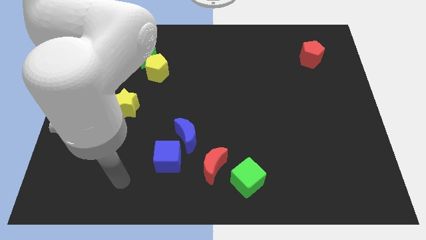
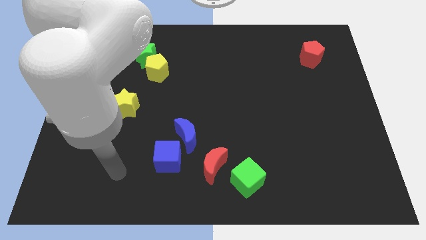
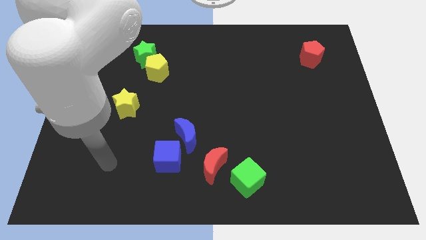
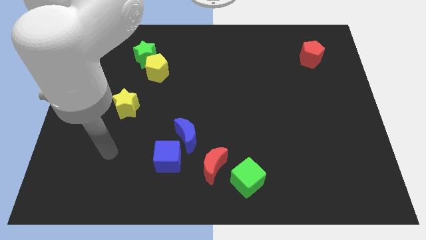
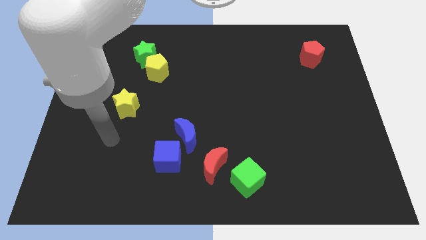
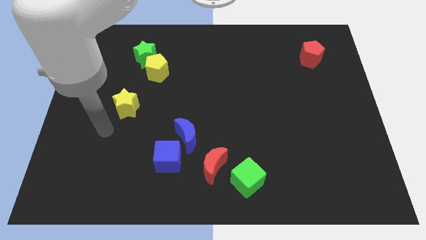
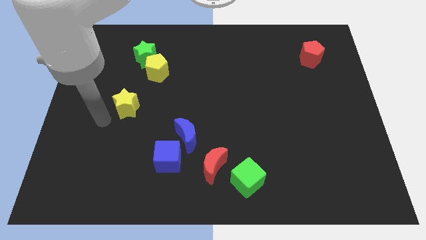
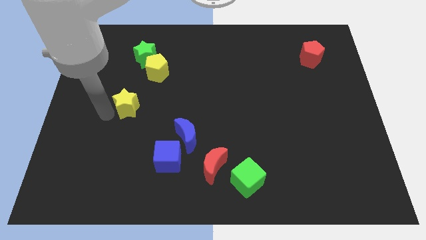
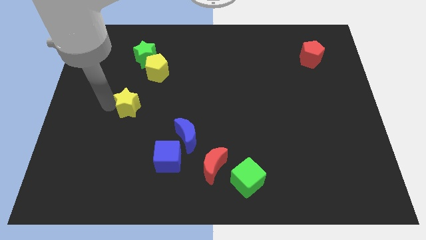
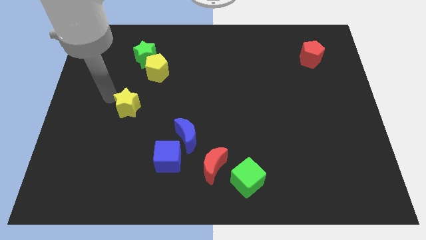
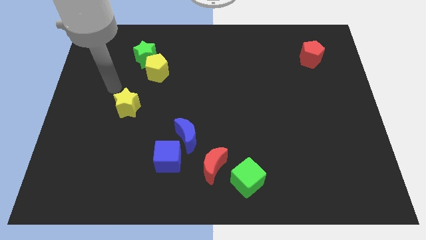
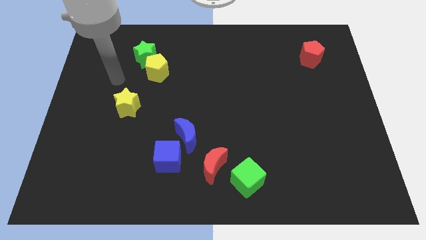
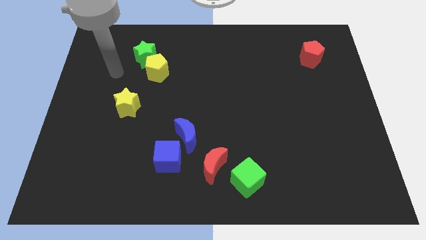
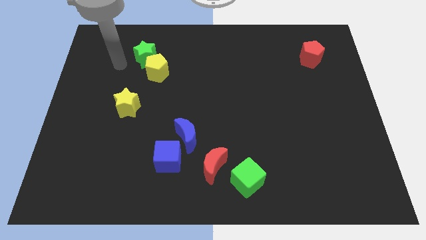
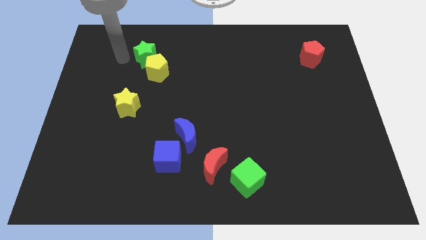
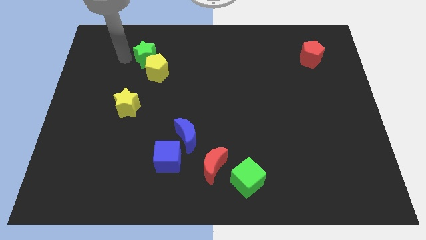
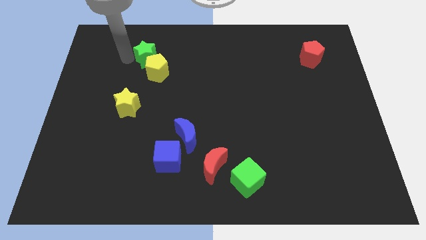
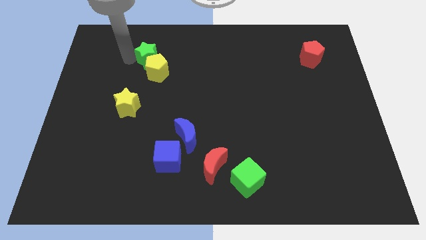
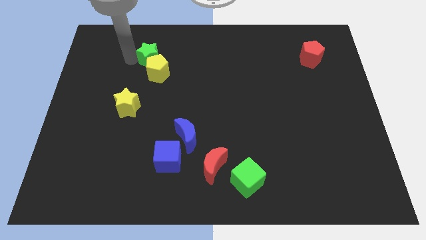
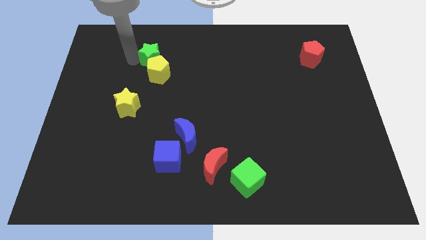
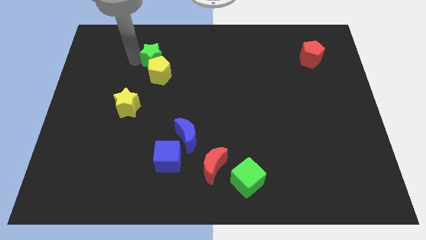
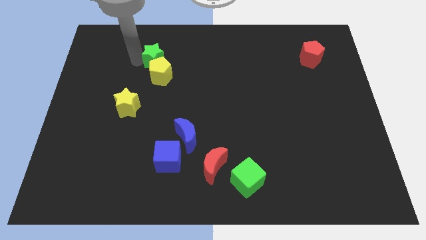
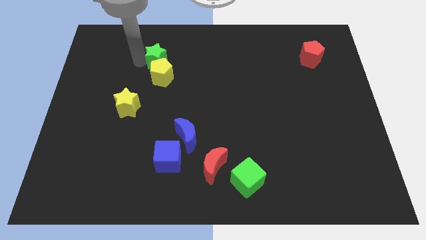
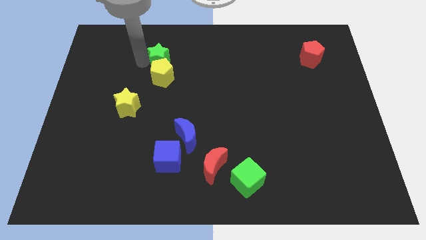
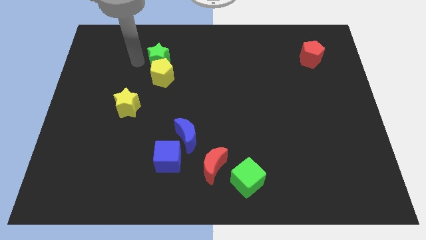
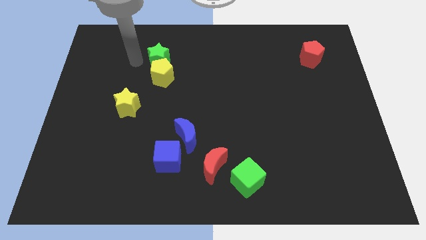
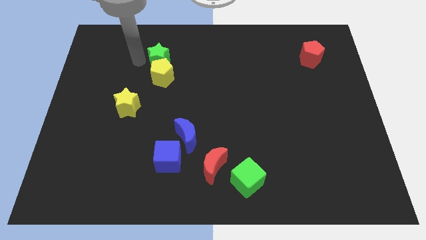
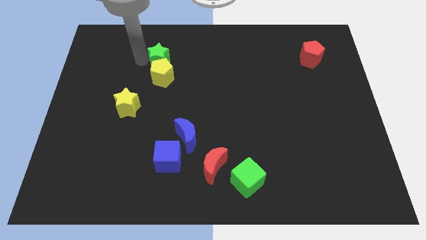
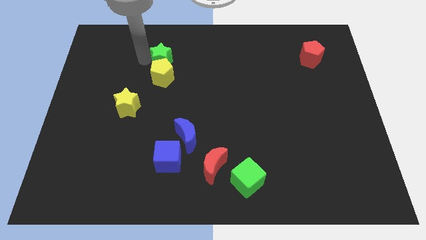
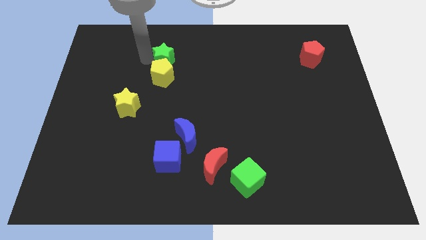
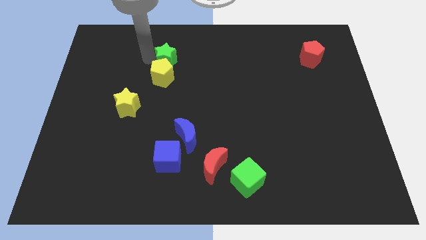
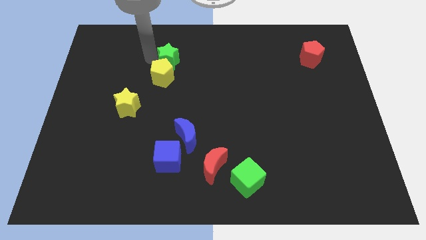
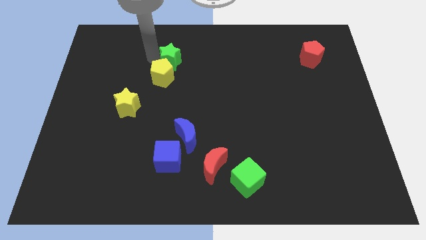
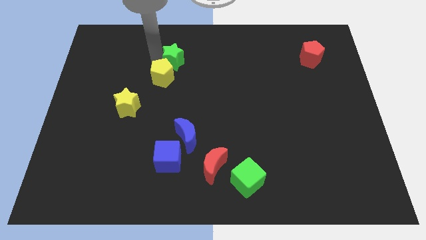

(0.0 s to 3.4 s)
slightly push the green star right

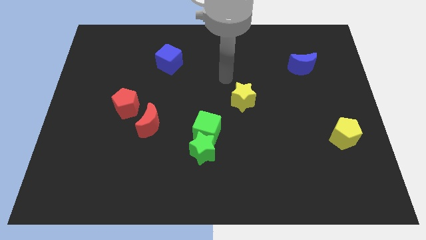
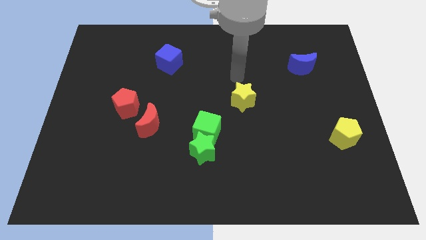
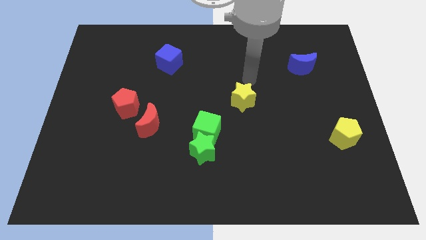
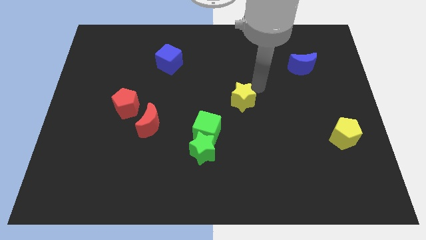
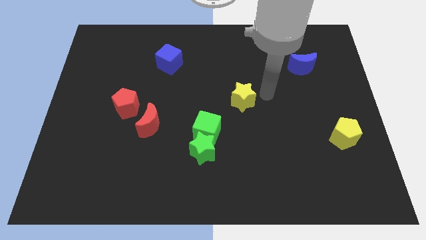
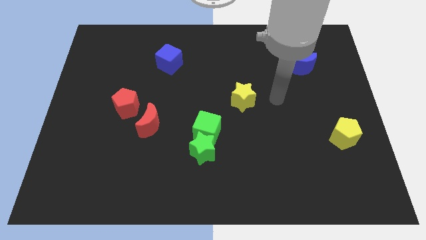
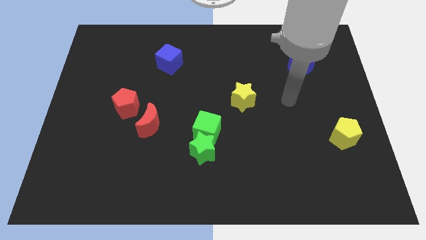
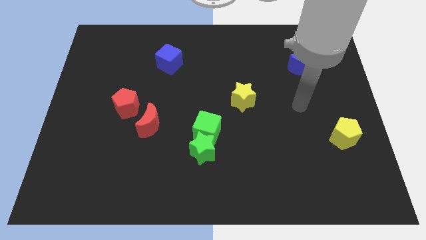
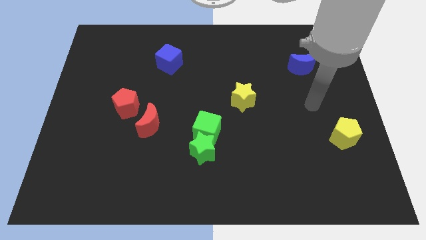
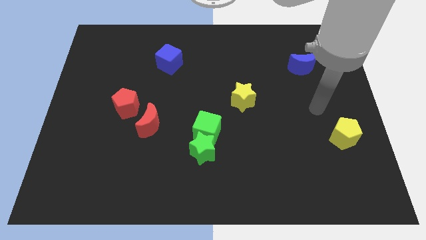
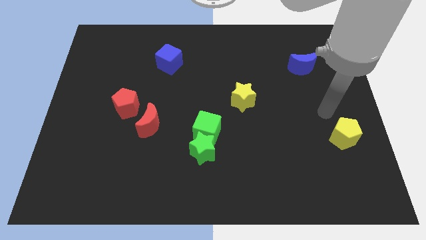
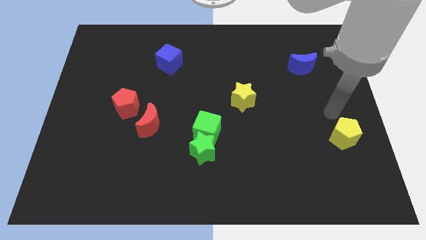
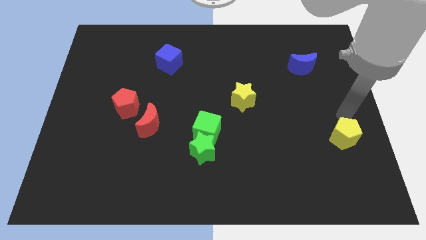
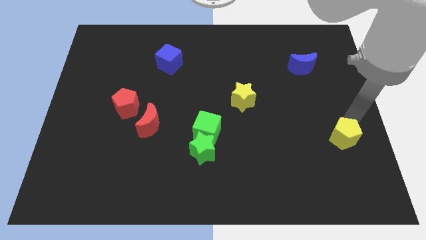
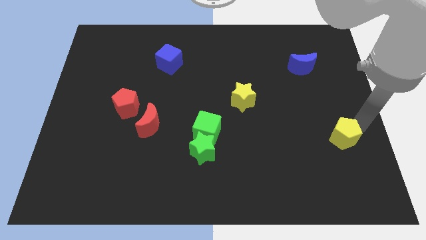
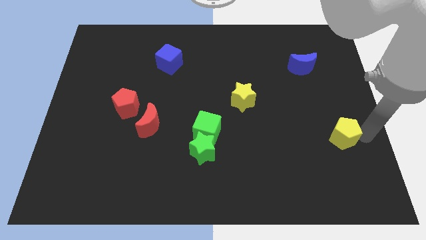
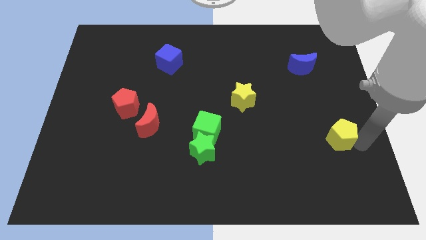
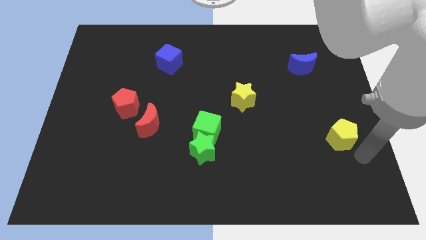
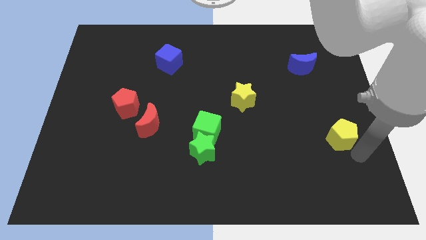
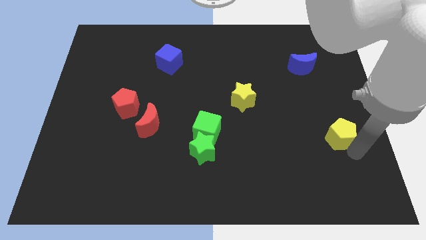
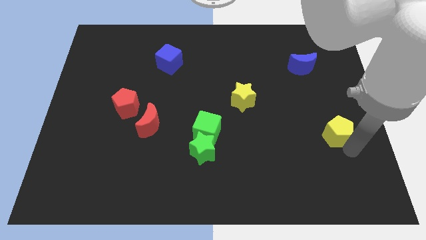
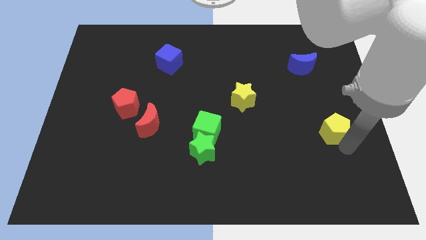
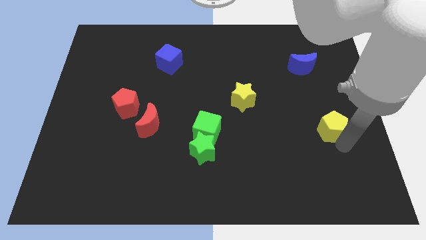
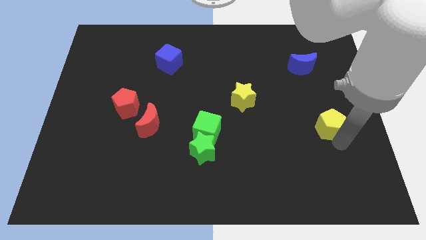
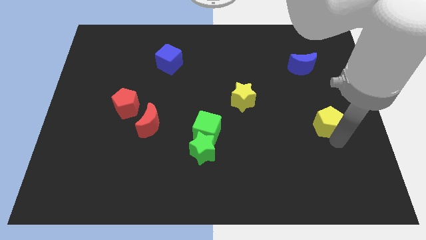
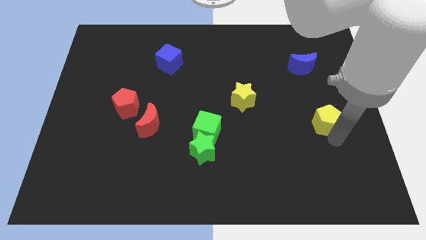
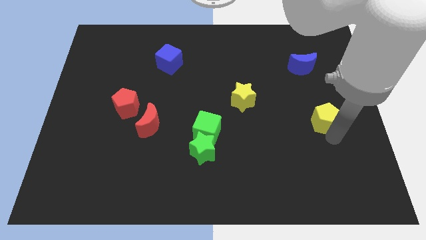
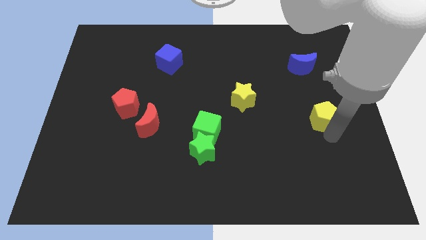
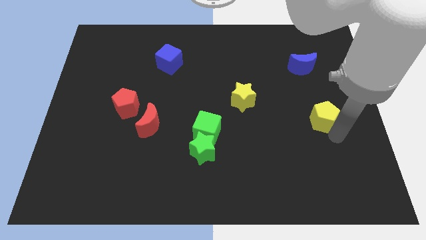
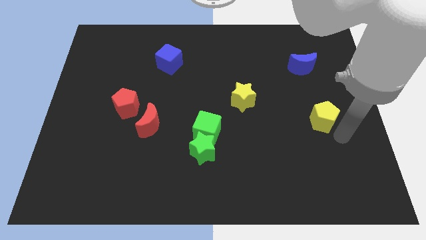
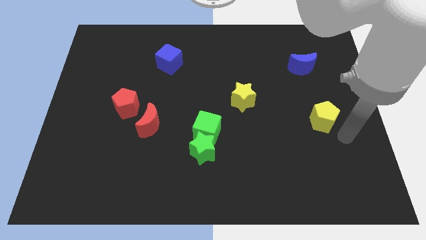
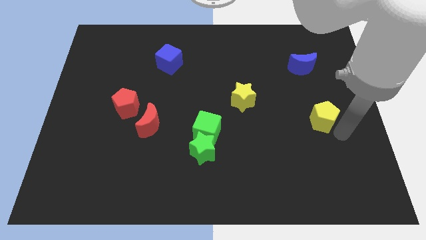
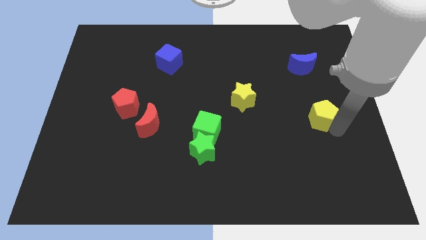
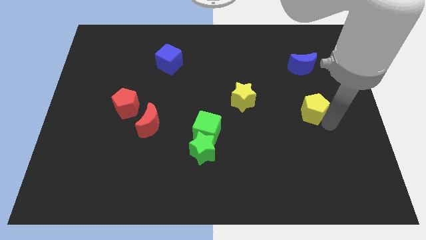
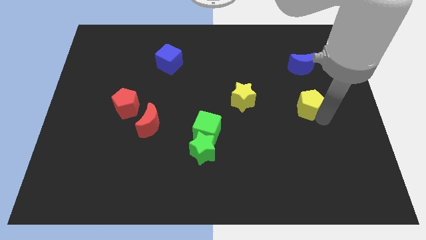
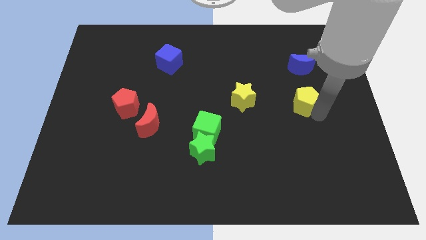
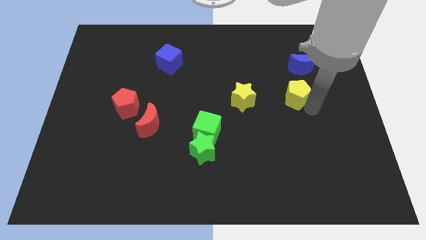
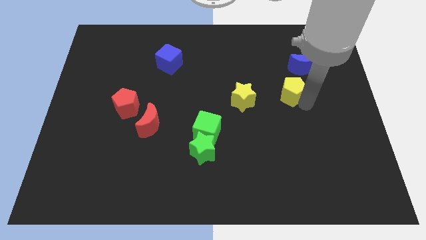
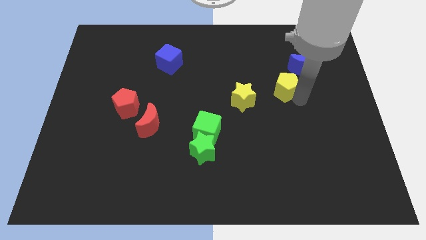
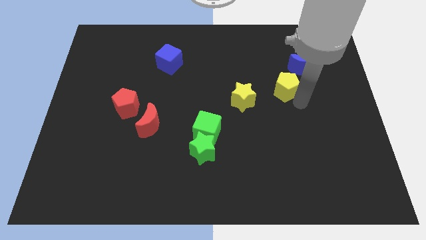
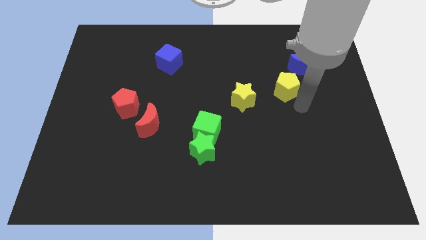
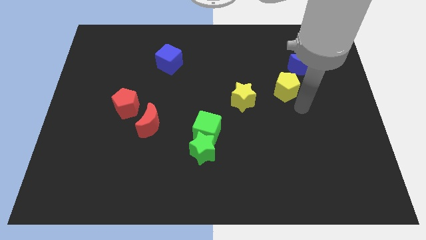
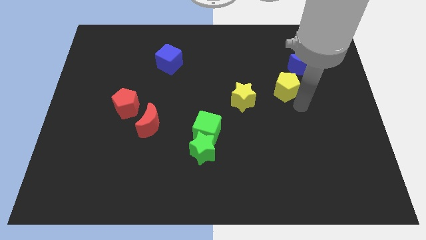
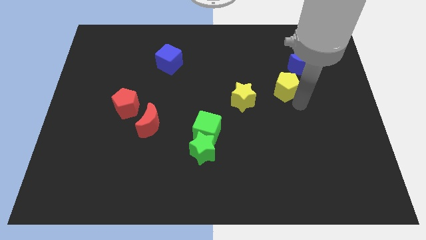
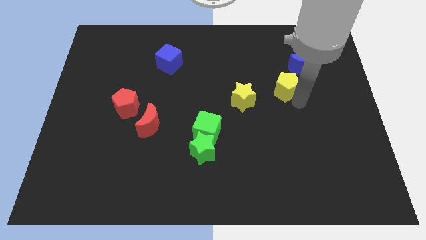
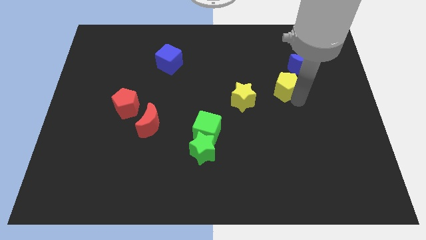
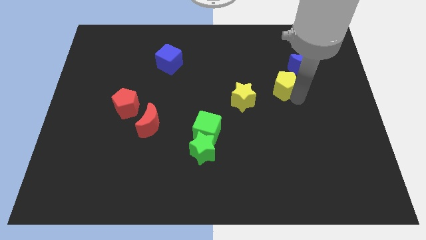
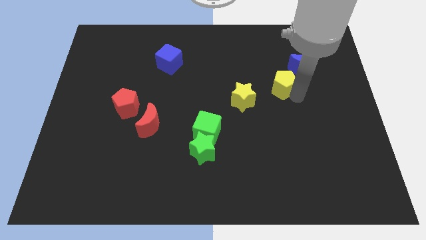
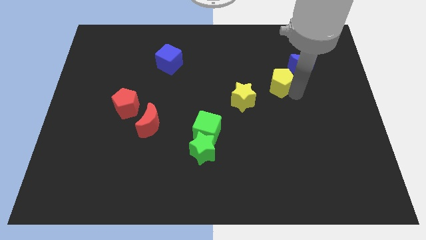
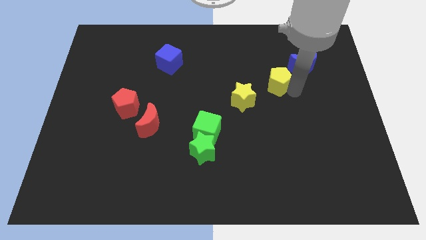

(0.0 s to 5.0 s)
slide the yellow pentagon up and then left
